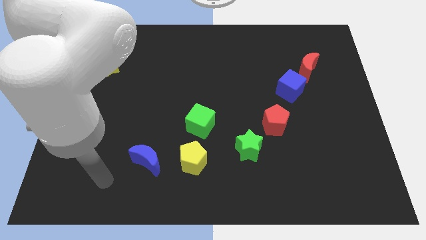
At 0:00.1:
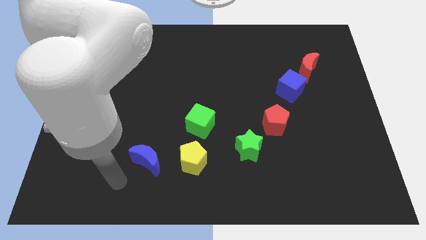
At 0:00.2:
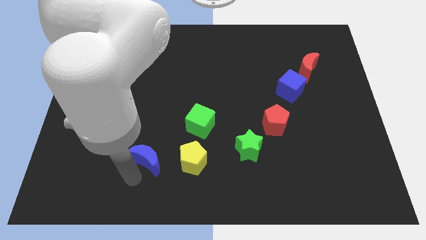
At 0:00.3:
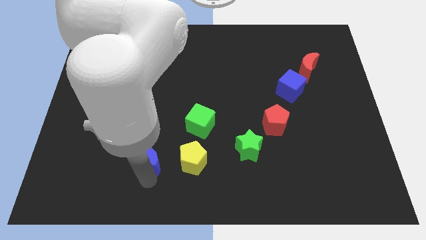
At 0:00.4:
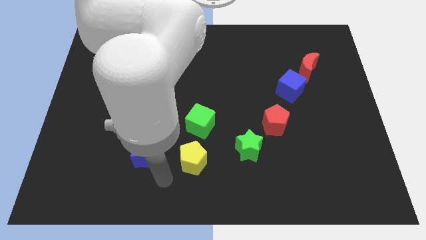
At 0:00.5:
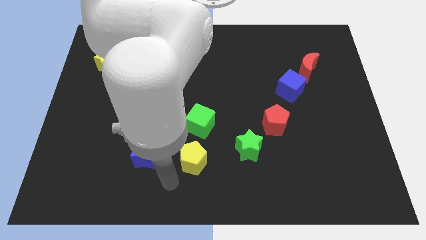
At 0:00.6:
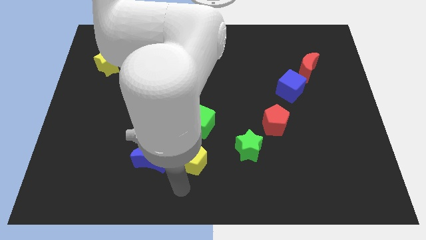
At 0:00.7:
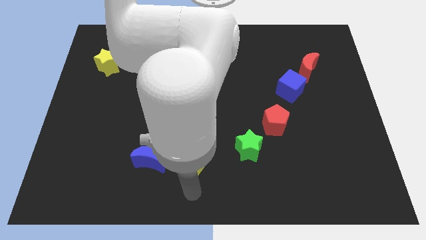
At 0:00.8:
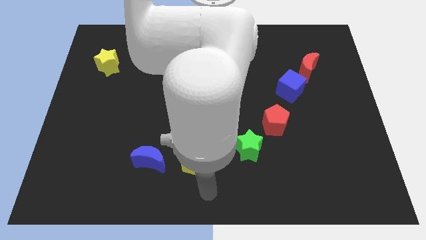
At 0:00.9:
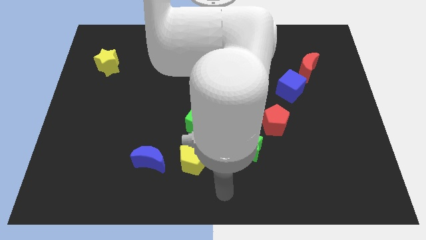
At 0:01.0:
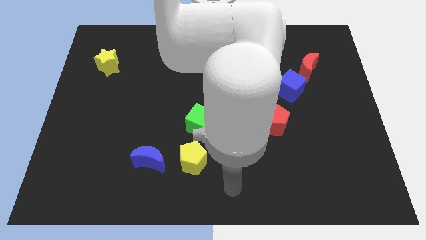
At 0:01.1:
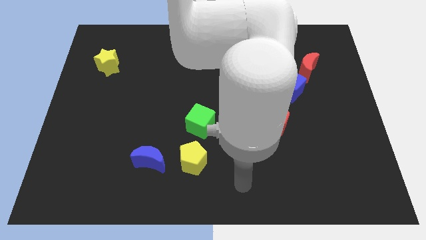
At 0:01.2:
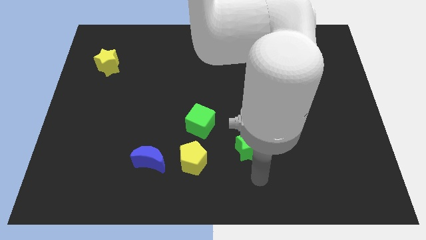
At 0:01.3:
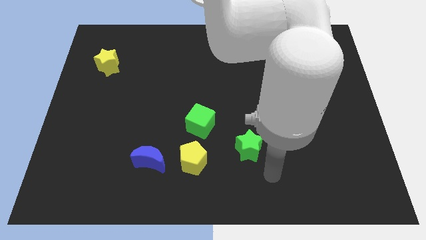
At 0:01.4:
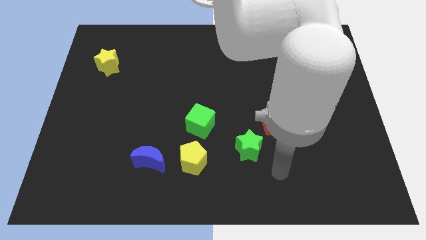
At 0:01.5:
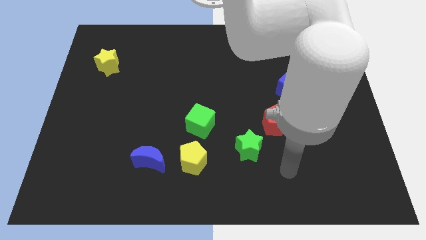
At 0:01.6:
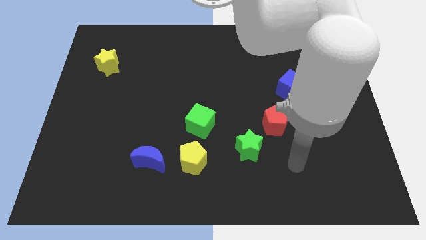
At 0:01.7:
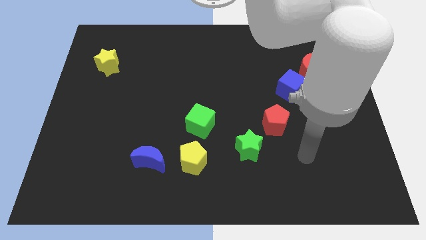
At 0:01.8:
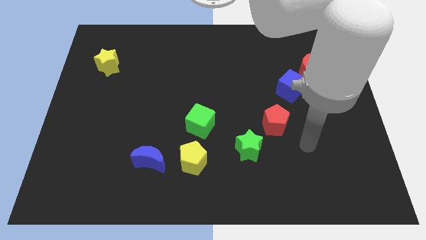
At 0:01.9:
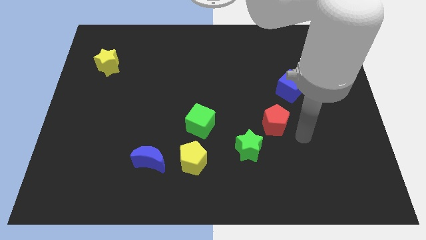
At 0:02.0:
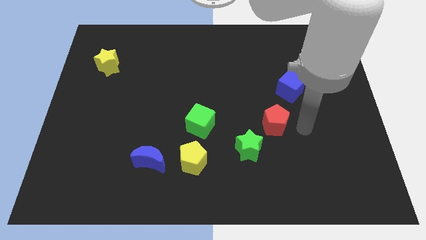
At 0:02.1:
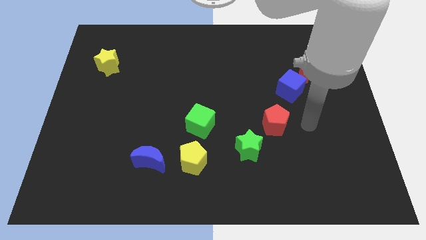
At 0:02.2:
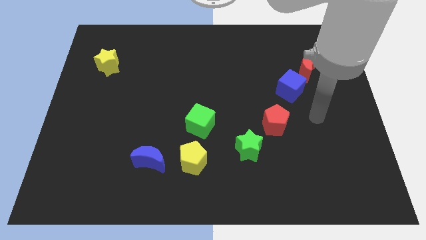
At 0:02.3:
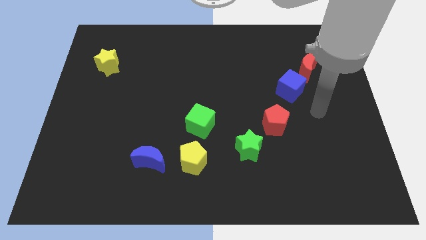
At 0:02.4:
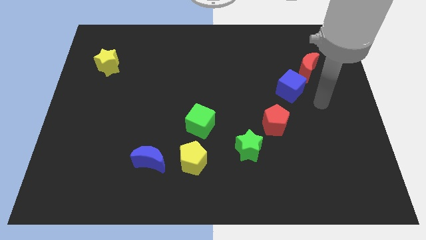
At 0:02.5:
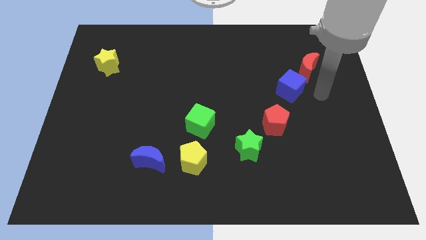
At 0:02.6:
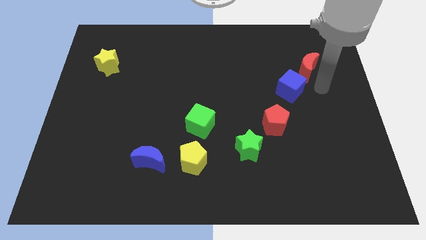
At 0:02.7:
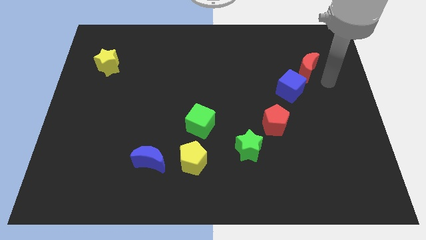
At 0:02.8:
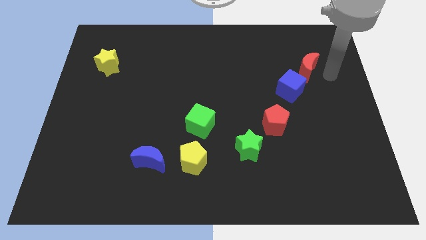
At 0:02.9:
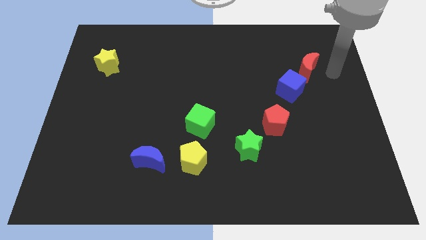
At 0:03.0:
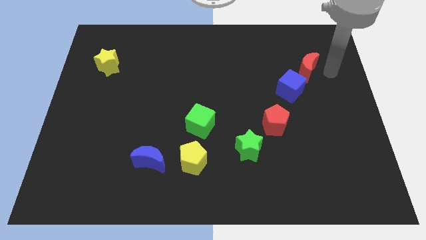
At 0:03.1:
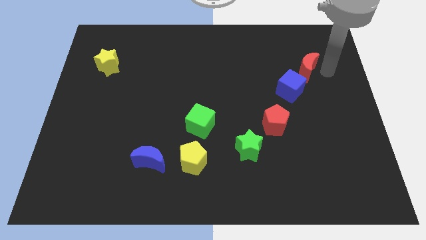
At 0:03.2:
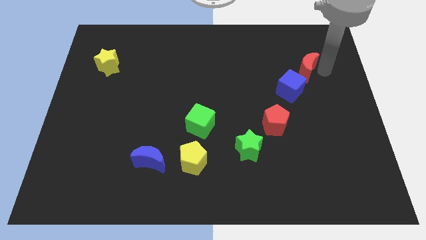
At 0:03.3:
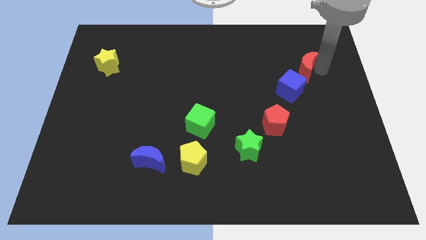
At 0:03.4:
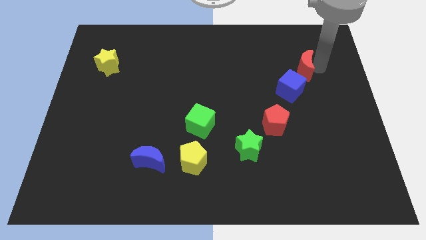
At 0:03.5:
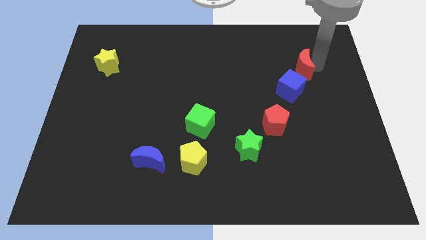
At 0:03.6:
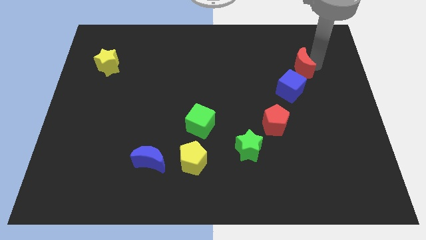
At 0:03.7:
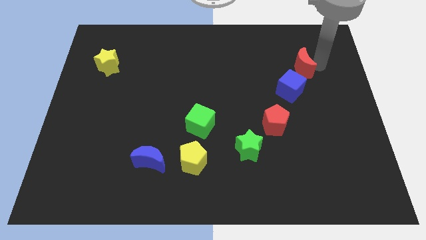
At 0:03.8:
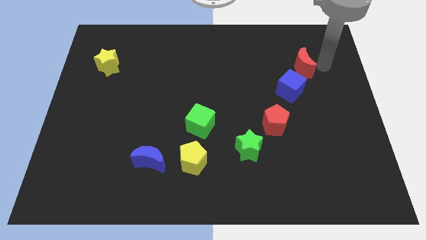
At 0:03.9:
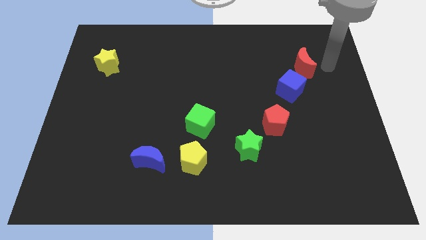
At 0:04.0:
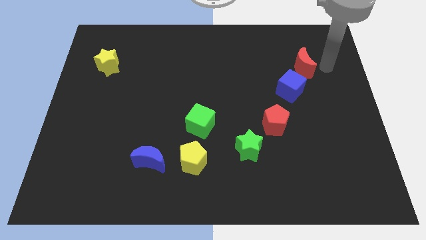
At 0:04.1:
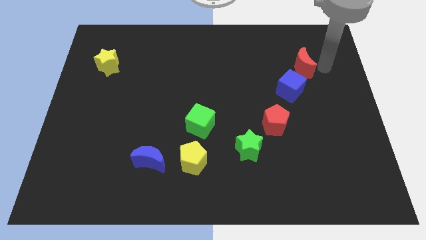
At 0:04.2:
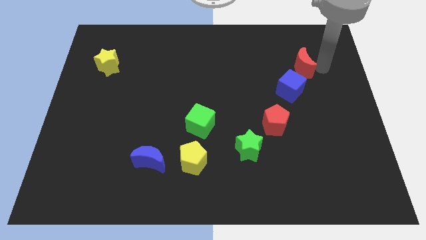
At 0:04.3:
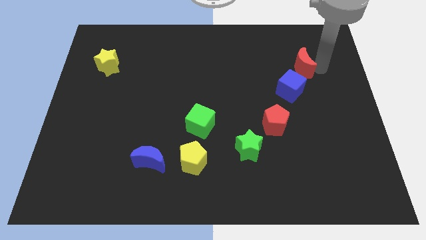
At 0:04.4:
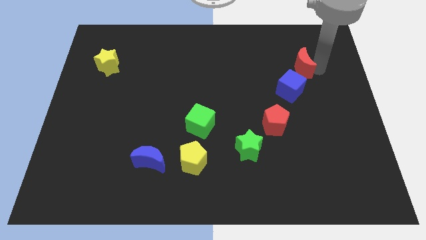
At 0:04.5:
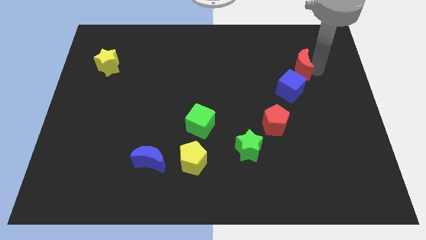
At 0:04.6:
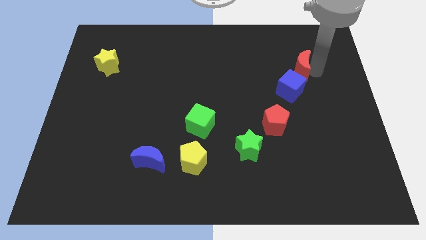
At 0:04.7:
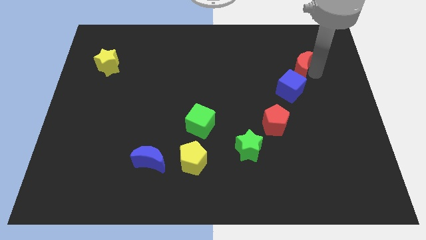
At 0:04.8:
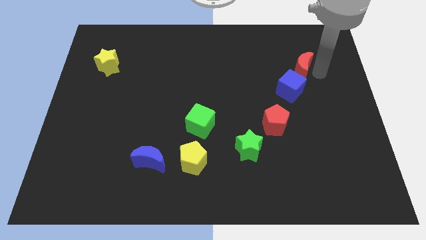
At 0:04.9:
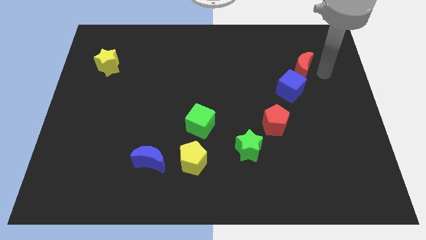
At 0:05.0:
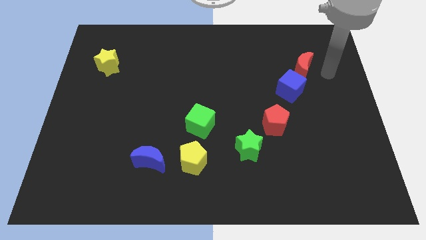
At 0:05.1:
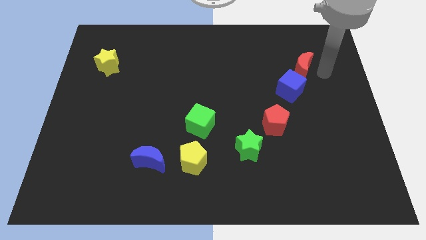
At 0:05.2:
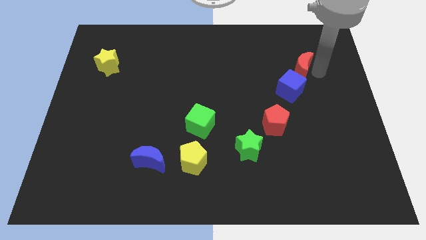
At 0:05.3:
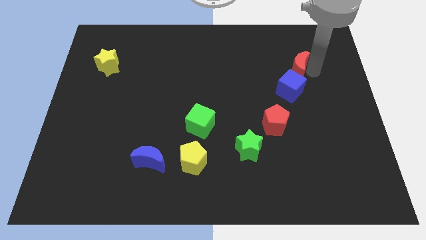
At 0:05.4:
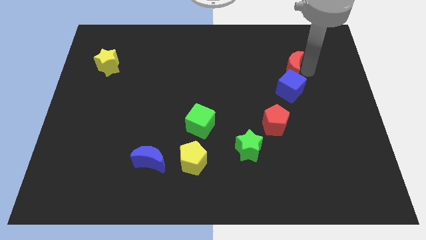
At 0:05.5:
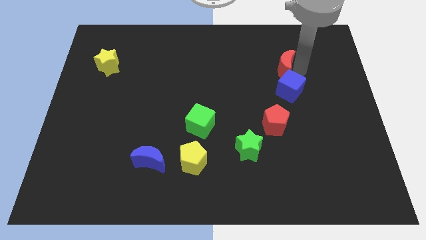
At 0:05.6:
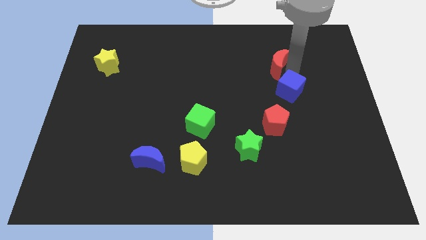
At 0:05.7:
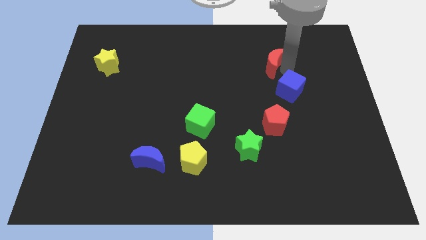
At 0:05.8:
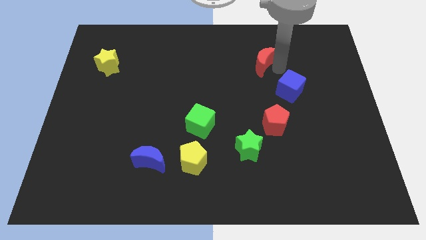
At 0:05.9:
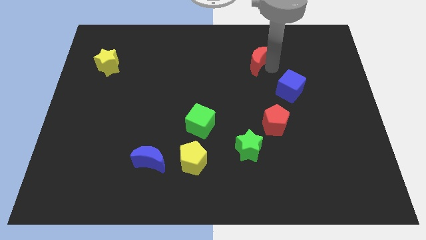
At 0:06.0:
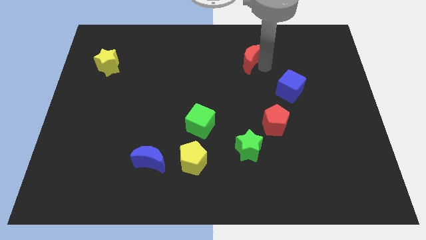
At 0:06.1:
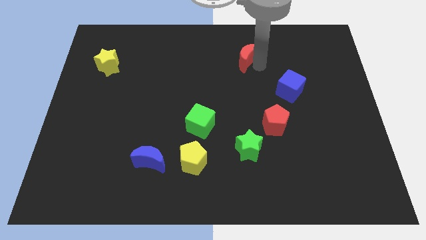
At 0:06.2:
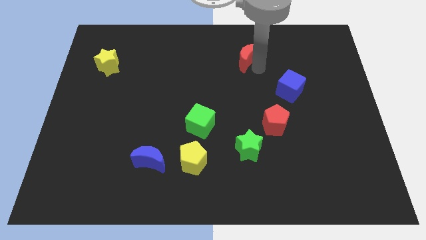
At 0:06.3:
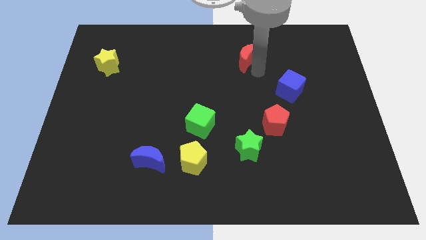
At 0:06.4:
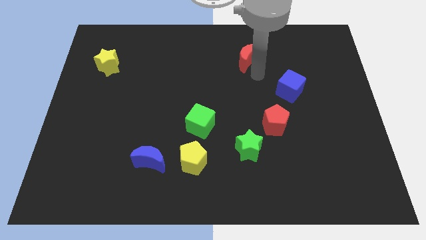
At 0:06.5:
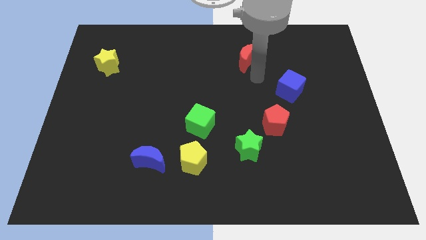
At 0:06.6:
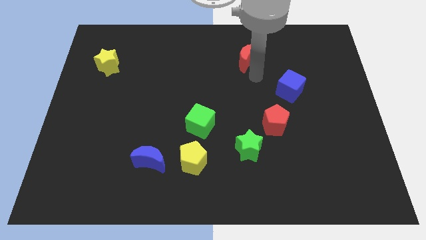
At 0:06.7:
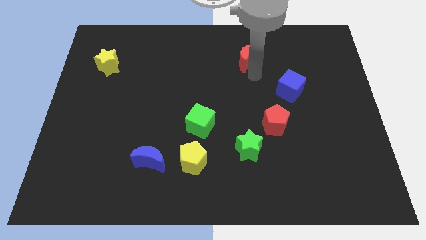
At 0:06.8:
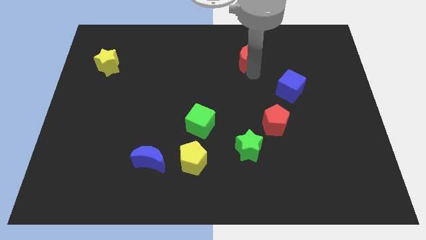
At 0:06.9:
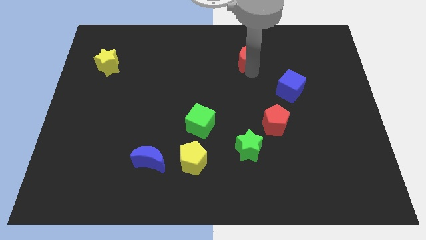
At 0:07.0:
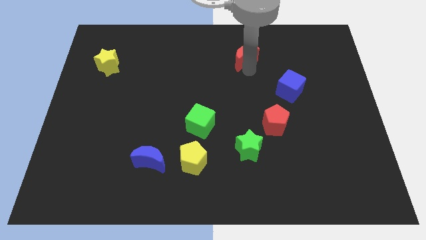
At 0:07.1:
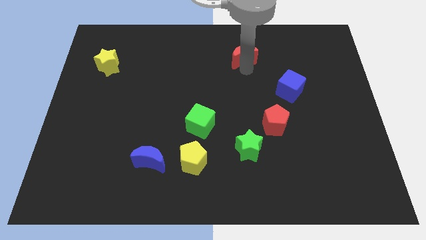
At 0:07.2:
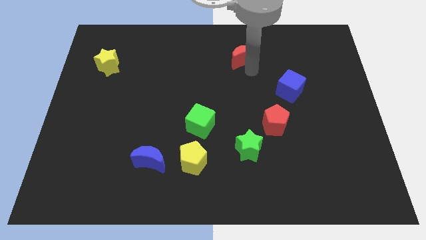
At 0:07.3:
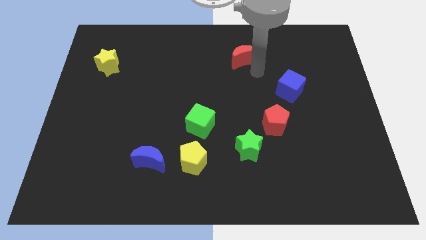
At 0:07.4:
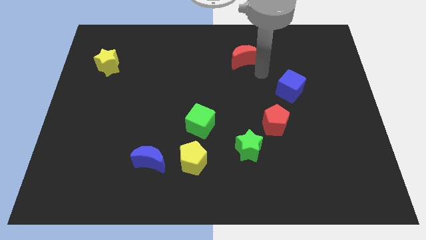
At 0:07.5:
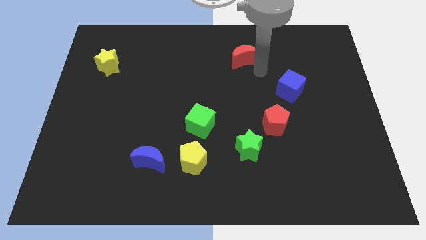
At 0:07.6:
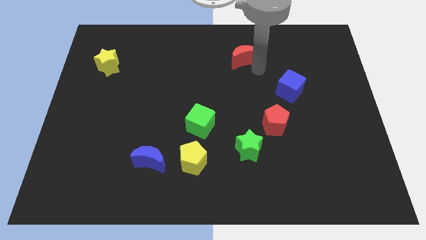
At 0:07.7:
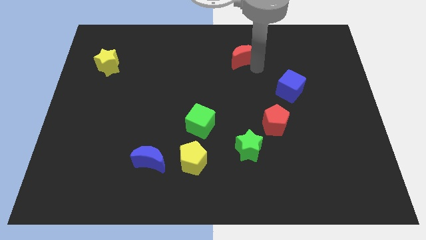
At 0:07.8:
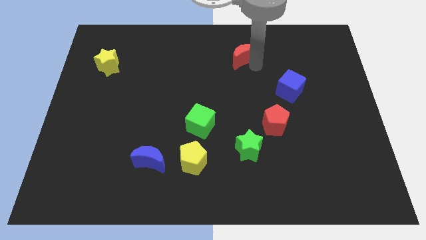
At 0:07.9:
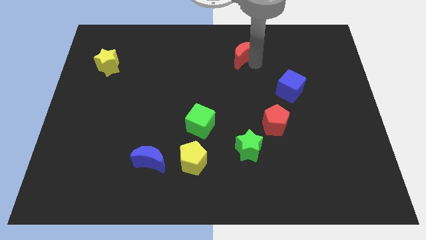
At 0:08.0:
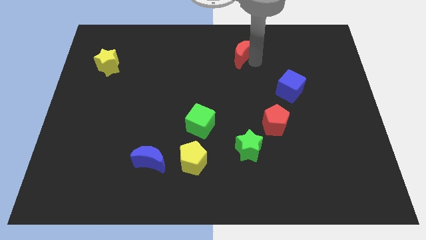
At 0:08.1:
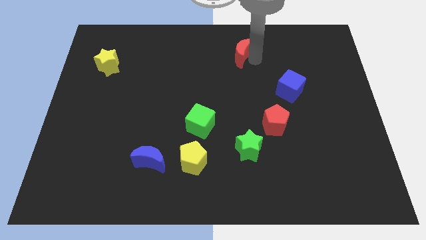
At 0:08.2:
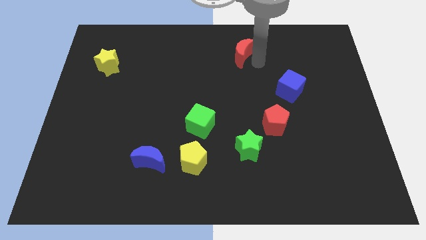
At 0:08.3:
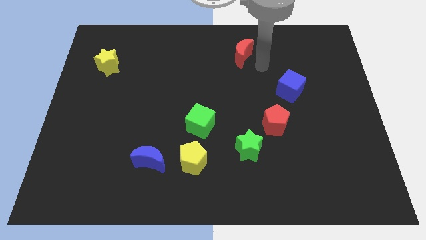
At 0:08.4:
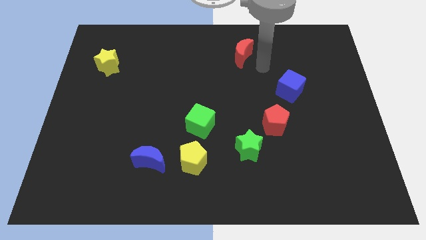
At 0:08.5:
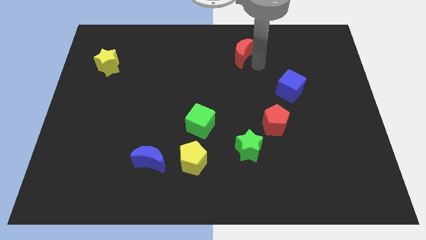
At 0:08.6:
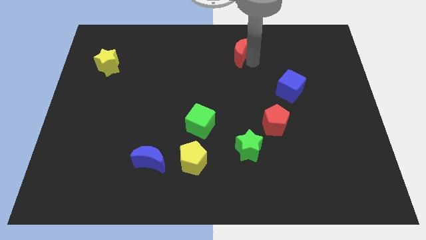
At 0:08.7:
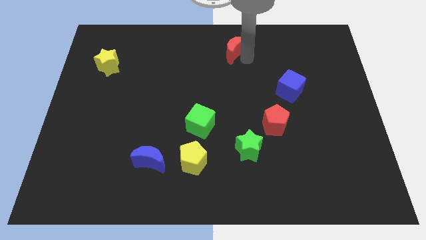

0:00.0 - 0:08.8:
slide the red moon to the top side
